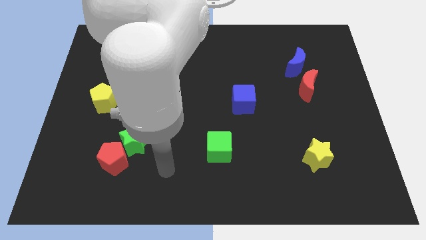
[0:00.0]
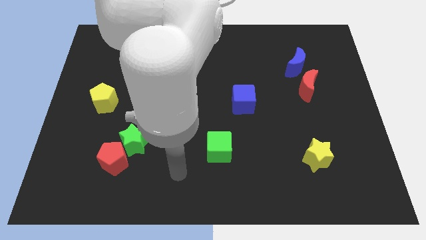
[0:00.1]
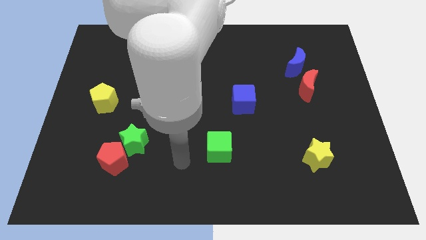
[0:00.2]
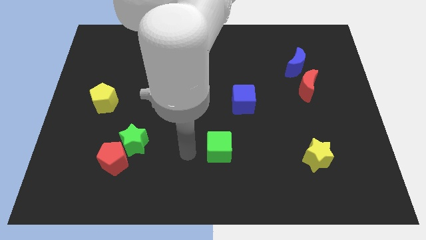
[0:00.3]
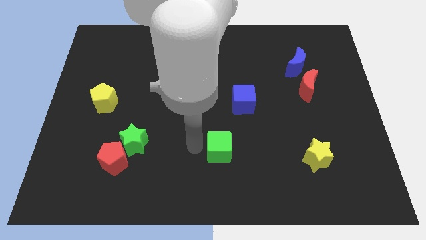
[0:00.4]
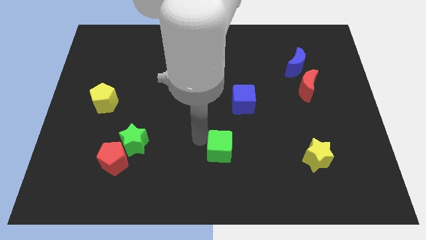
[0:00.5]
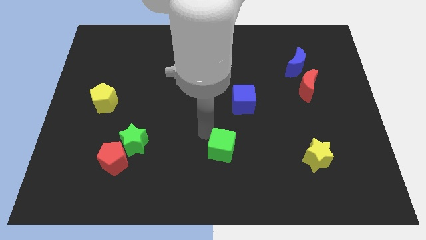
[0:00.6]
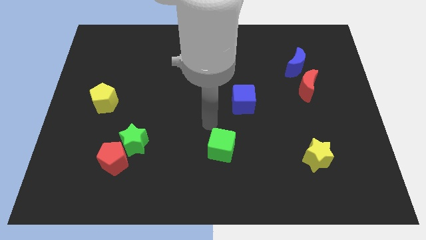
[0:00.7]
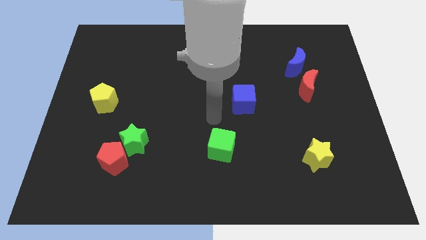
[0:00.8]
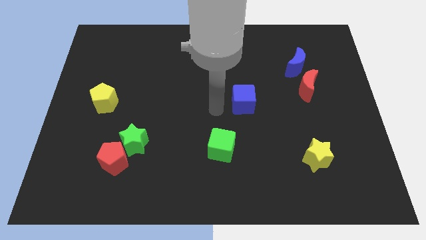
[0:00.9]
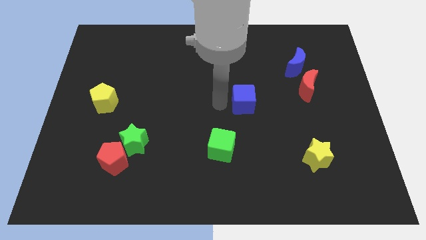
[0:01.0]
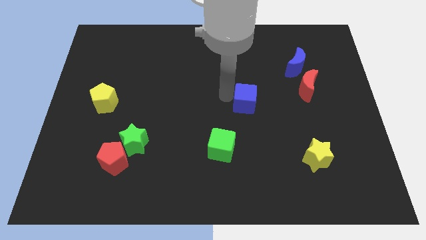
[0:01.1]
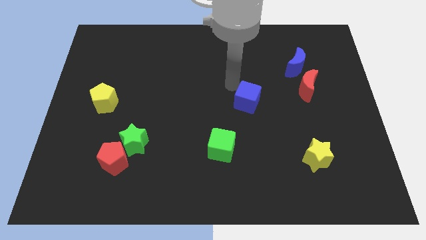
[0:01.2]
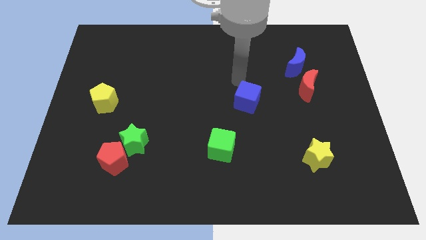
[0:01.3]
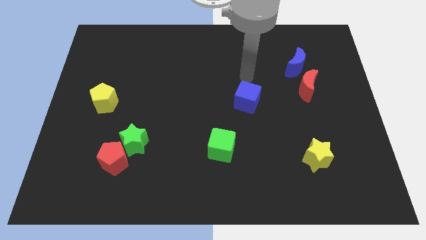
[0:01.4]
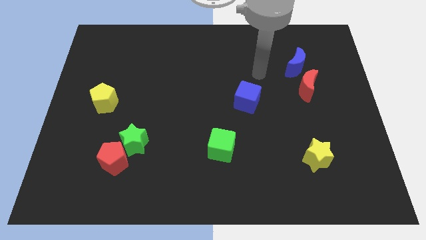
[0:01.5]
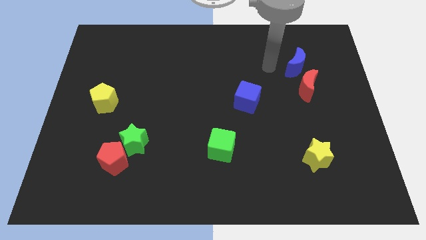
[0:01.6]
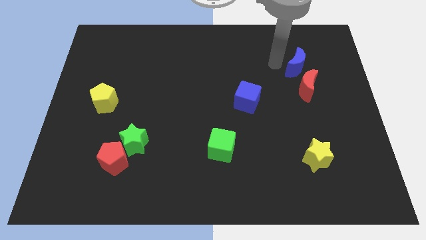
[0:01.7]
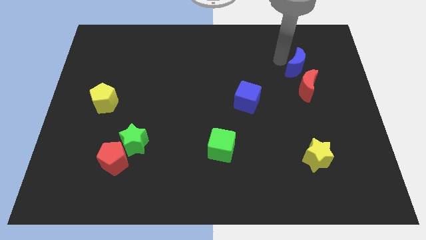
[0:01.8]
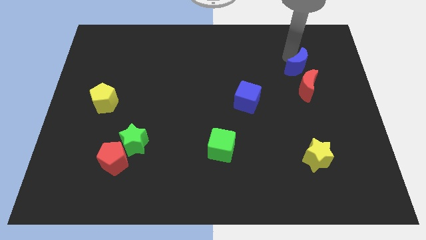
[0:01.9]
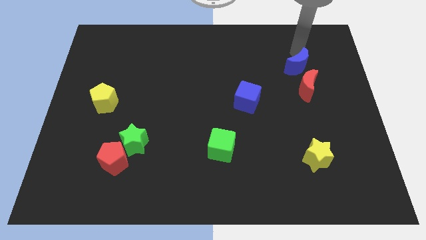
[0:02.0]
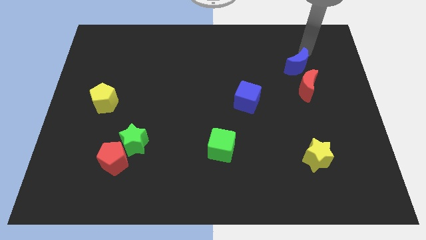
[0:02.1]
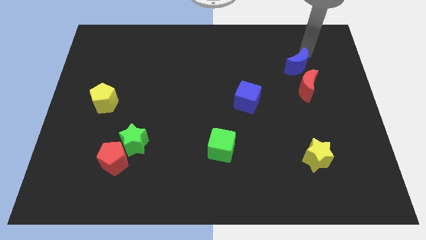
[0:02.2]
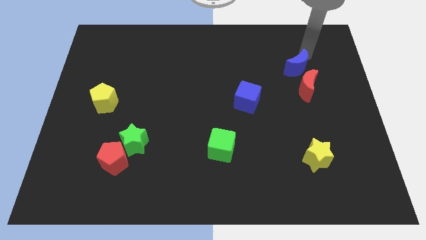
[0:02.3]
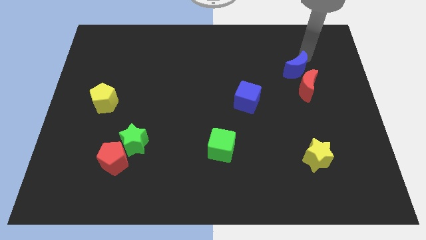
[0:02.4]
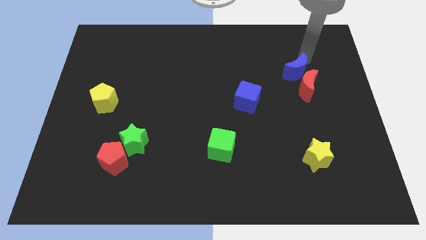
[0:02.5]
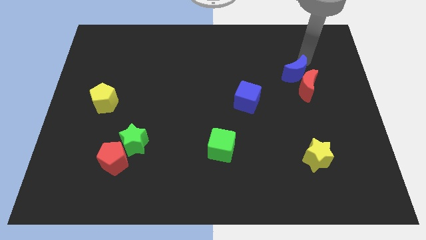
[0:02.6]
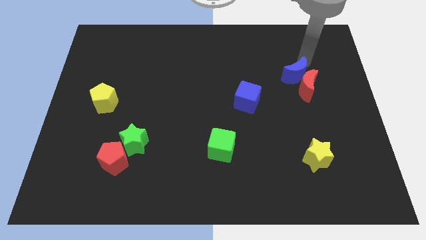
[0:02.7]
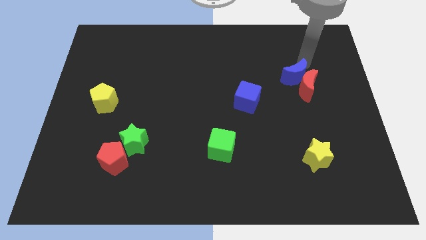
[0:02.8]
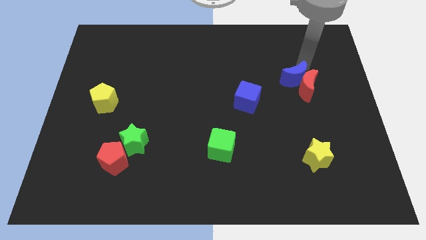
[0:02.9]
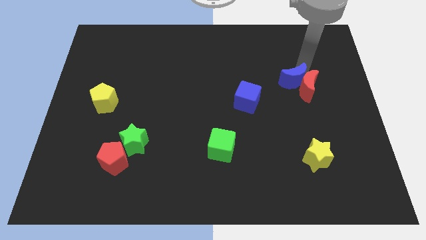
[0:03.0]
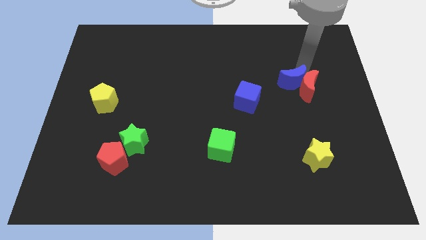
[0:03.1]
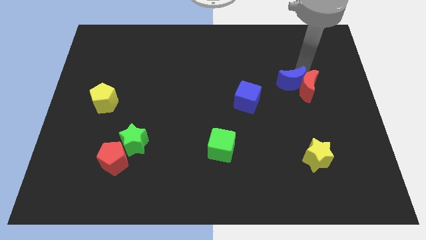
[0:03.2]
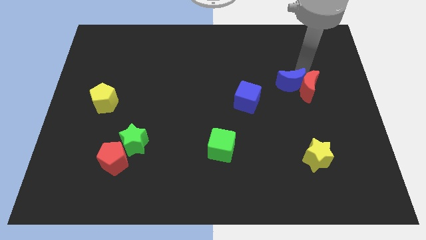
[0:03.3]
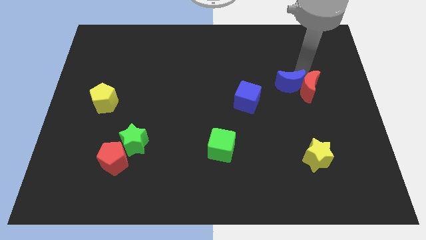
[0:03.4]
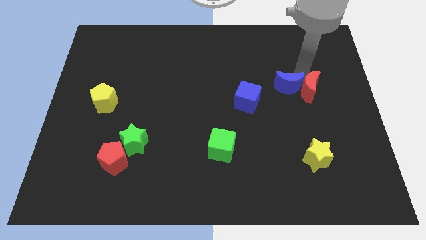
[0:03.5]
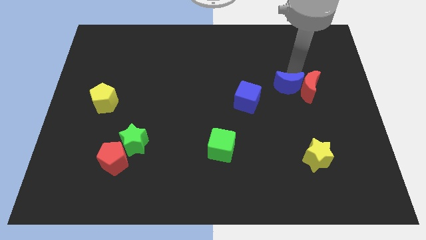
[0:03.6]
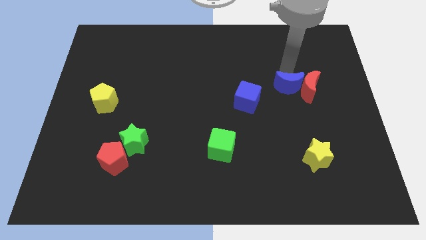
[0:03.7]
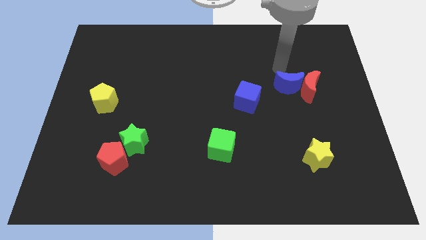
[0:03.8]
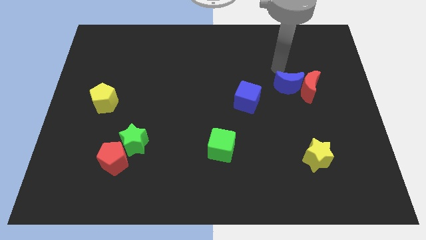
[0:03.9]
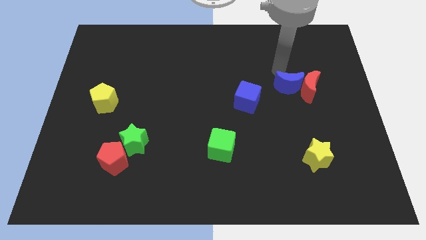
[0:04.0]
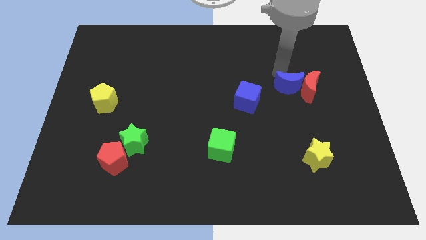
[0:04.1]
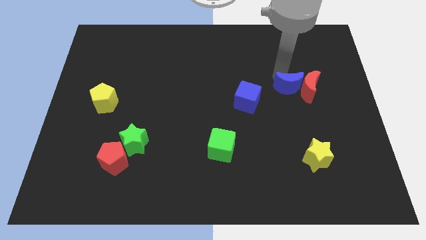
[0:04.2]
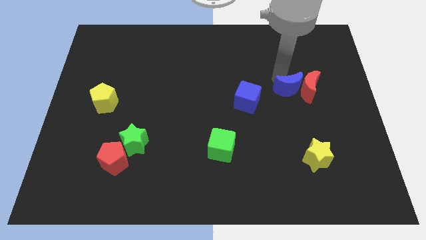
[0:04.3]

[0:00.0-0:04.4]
slightly push the blue moon down

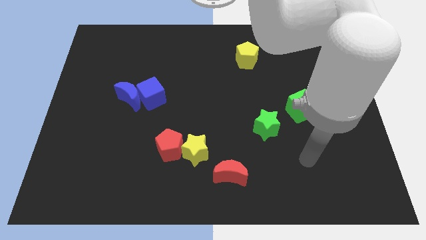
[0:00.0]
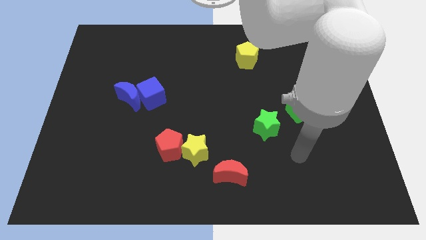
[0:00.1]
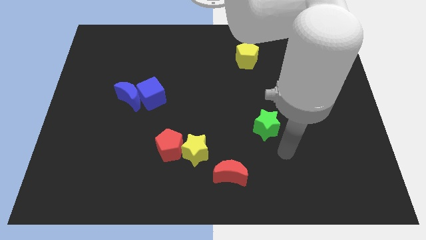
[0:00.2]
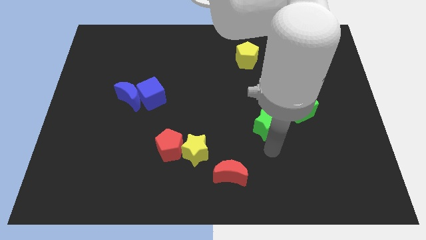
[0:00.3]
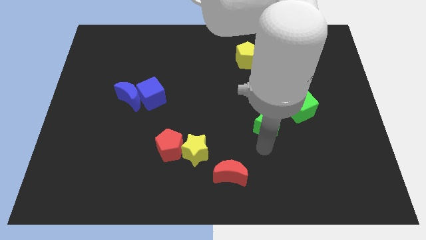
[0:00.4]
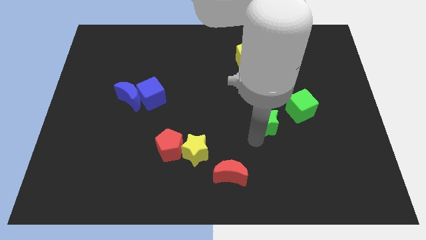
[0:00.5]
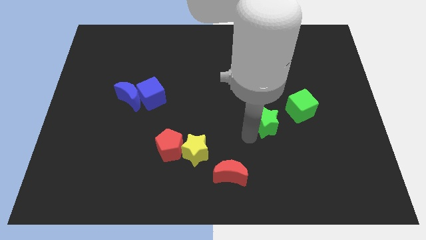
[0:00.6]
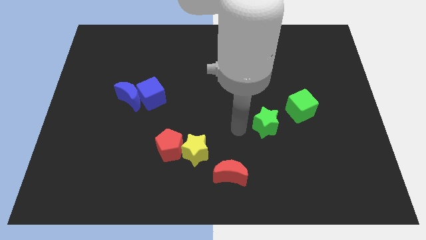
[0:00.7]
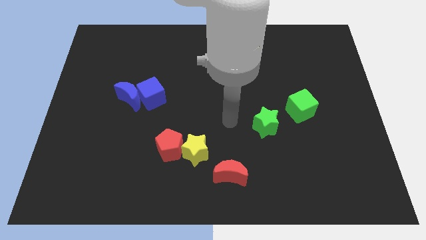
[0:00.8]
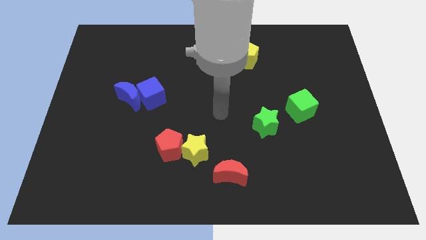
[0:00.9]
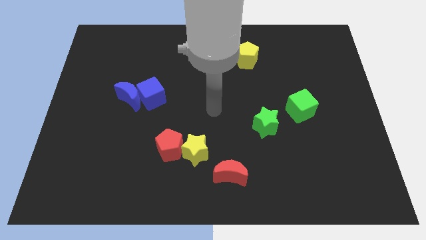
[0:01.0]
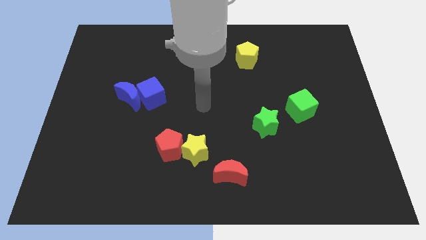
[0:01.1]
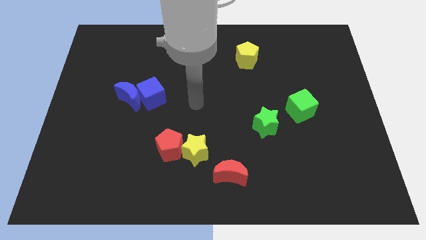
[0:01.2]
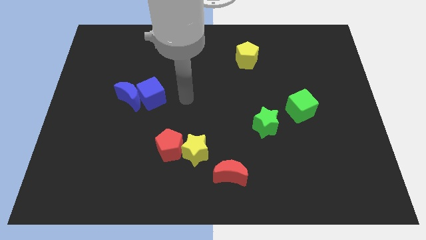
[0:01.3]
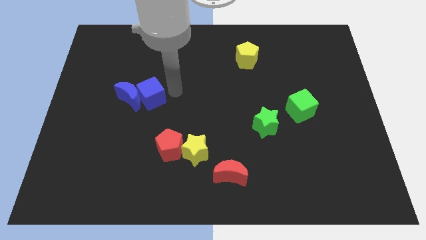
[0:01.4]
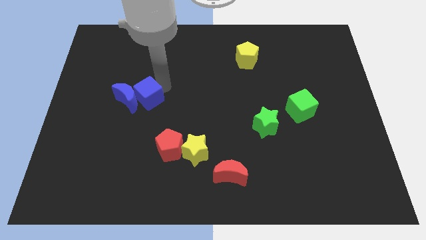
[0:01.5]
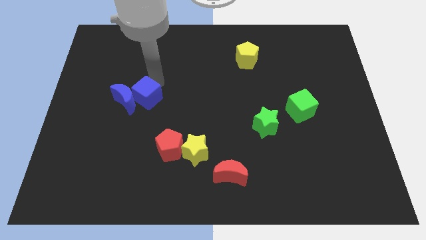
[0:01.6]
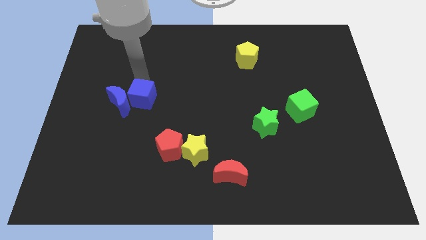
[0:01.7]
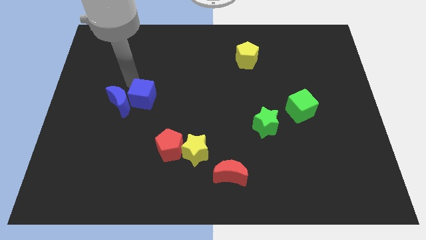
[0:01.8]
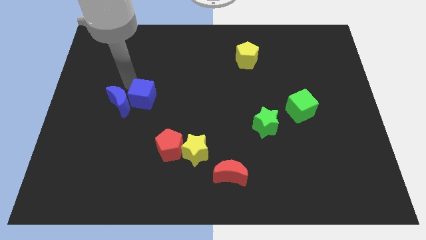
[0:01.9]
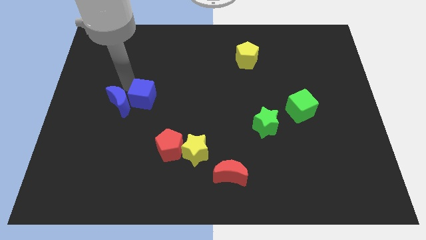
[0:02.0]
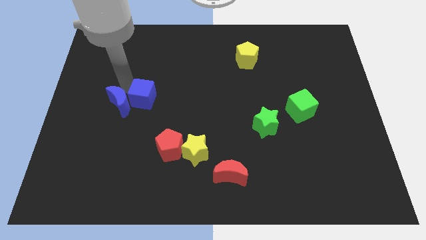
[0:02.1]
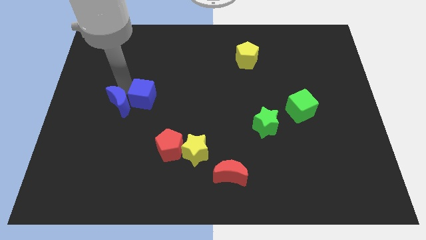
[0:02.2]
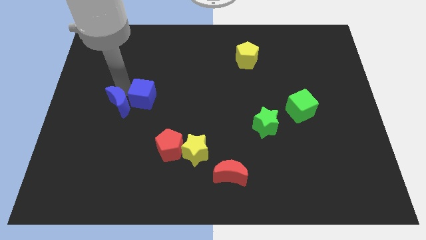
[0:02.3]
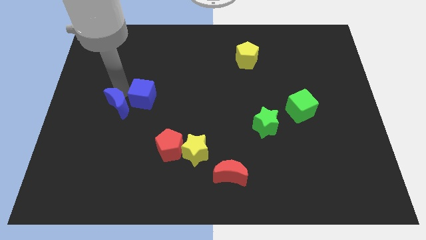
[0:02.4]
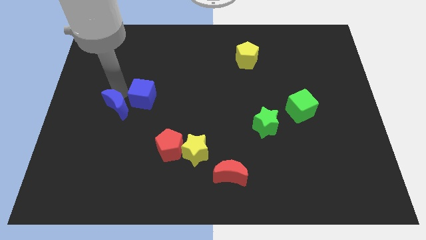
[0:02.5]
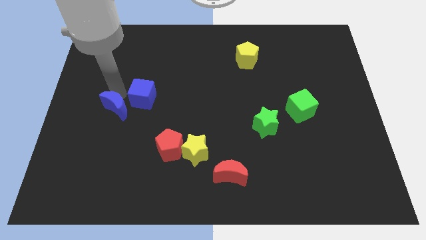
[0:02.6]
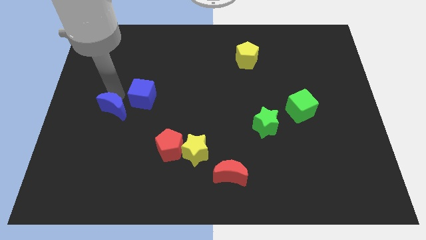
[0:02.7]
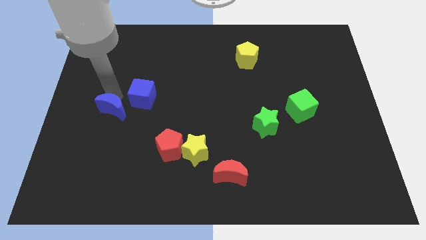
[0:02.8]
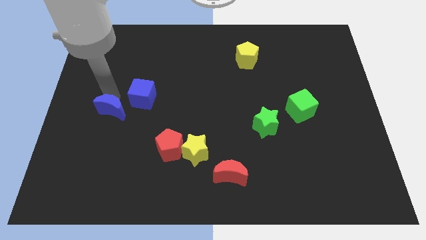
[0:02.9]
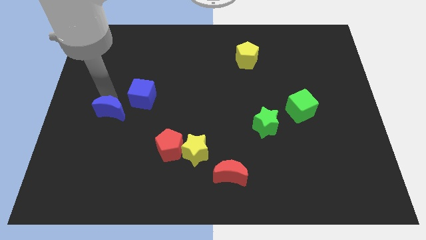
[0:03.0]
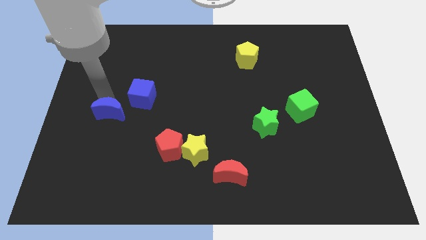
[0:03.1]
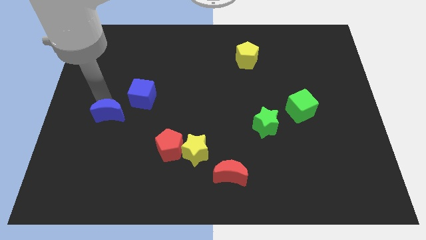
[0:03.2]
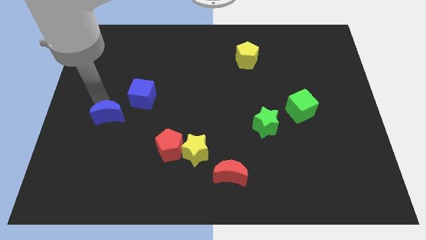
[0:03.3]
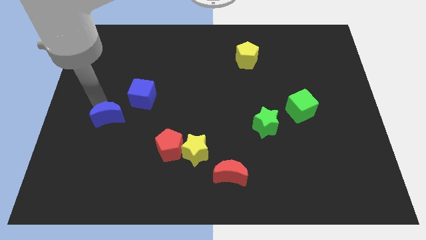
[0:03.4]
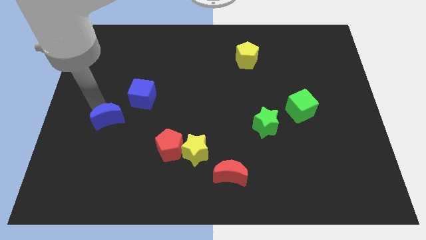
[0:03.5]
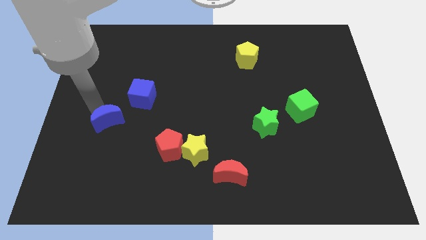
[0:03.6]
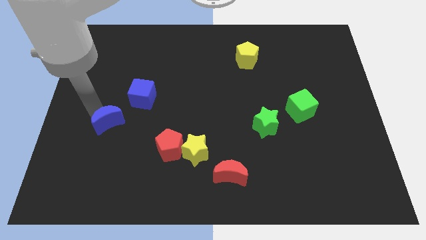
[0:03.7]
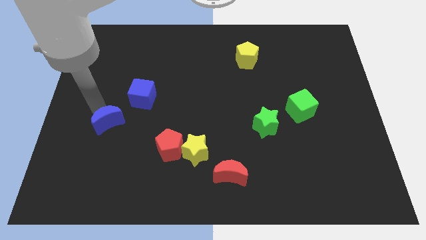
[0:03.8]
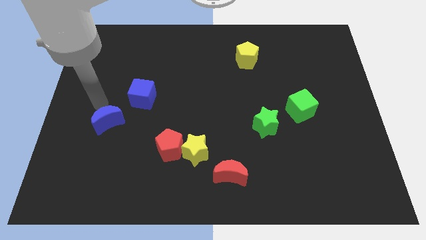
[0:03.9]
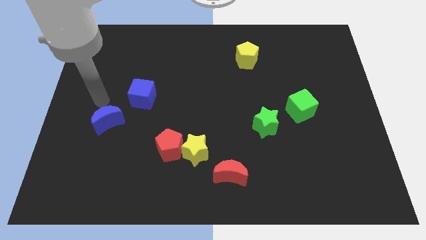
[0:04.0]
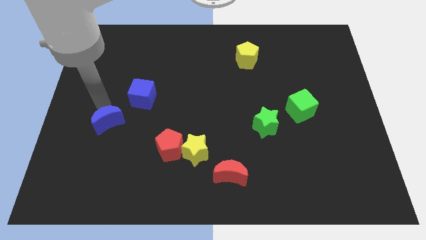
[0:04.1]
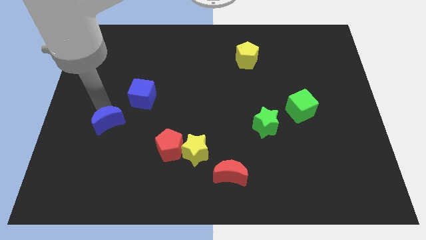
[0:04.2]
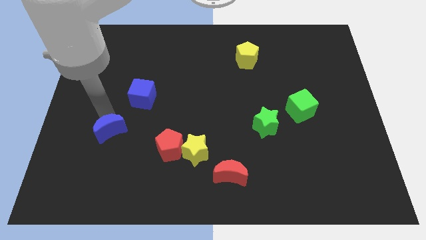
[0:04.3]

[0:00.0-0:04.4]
slightly move the blue moon down
